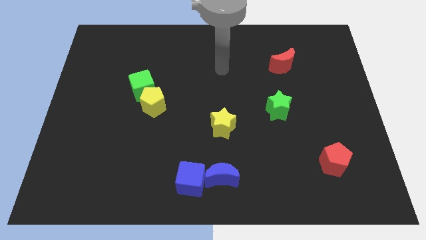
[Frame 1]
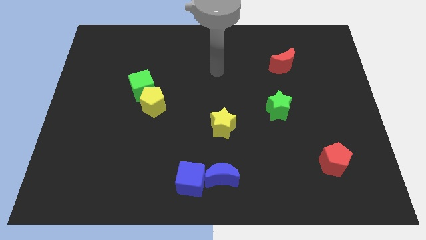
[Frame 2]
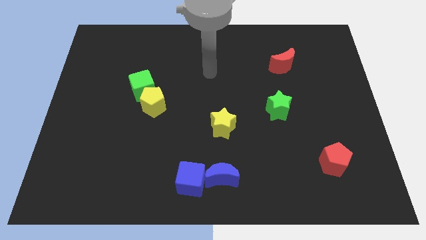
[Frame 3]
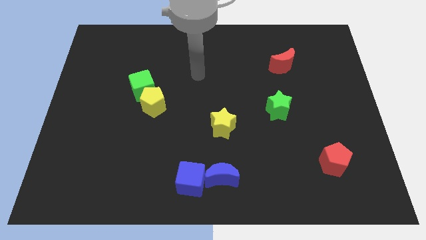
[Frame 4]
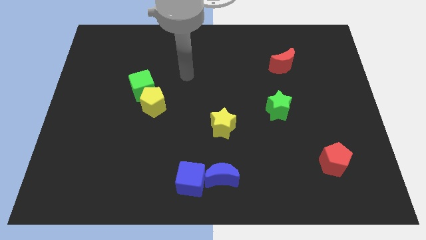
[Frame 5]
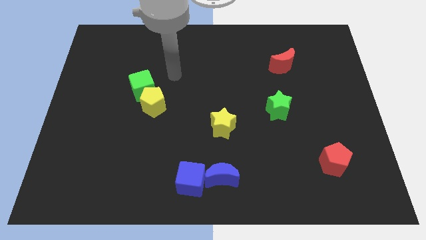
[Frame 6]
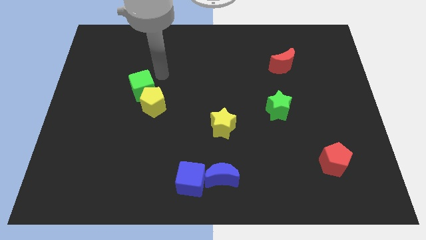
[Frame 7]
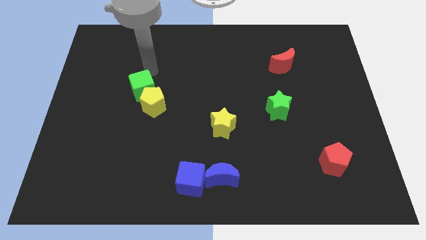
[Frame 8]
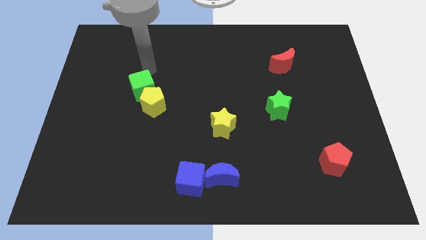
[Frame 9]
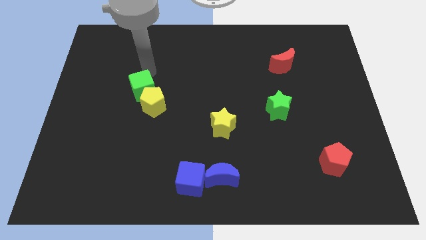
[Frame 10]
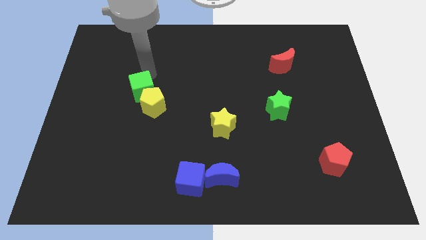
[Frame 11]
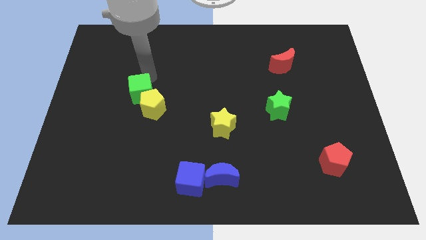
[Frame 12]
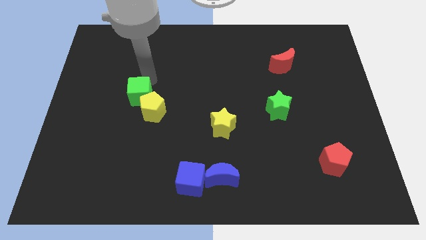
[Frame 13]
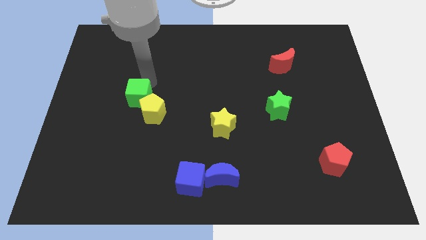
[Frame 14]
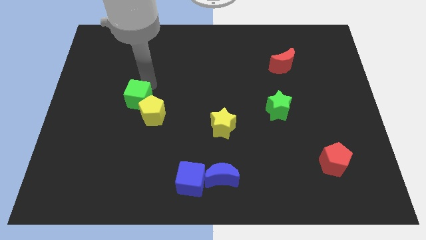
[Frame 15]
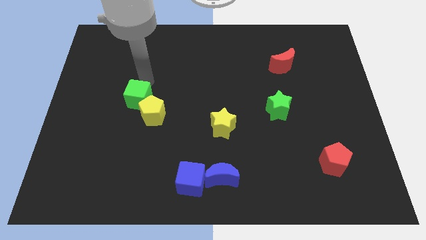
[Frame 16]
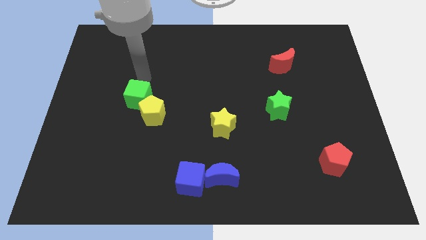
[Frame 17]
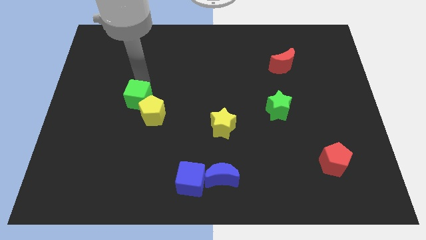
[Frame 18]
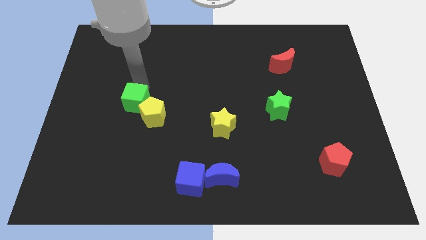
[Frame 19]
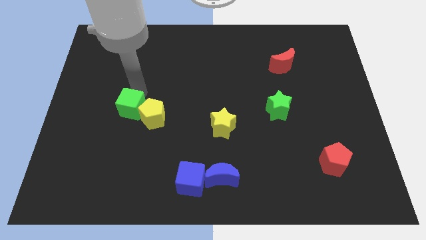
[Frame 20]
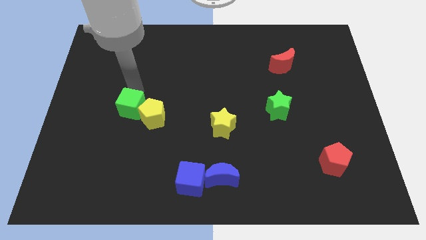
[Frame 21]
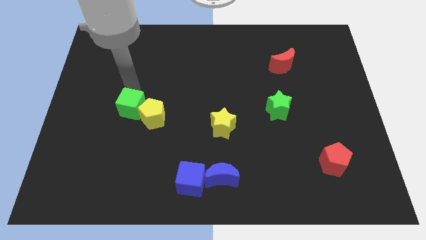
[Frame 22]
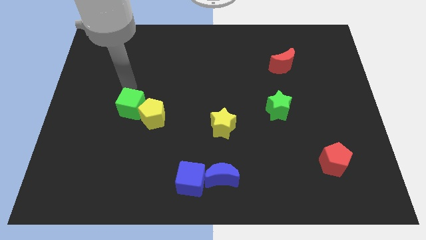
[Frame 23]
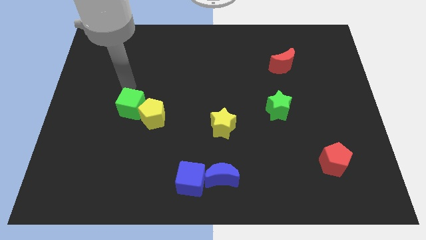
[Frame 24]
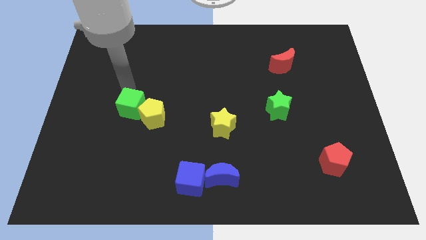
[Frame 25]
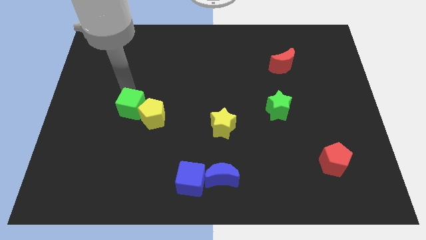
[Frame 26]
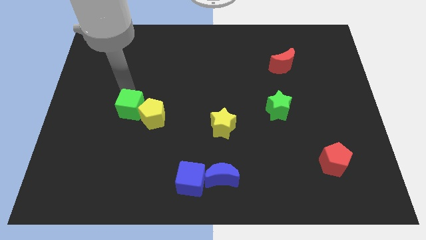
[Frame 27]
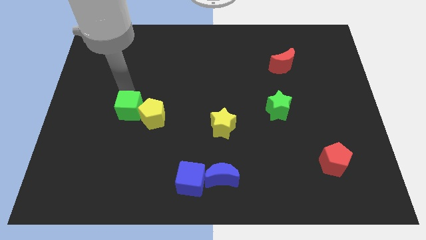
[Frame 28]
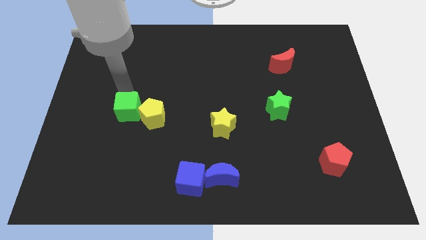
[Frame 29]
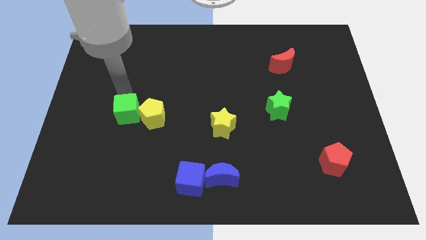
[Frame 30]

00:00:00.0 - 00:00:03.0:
slightly slide the green cube down

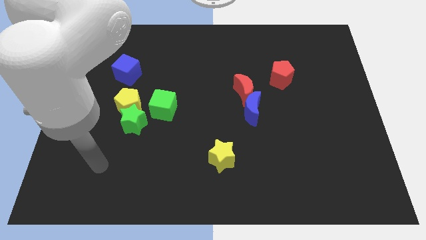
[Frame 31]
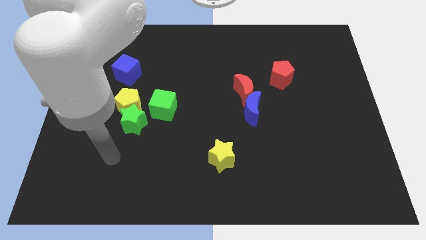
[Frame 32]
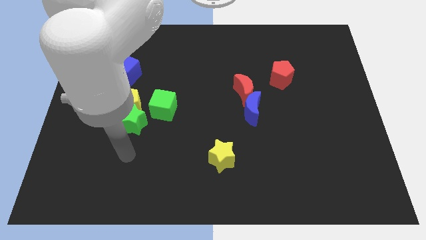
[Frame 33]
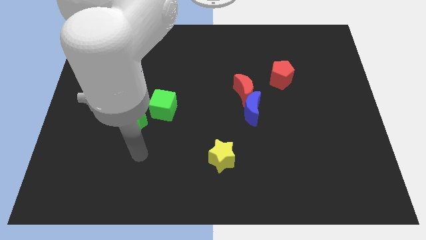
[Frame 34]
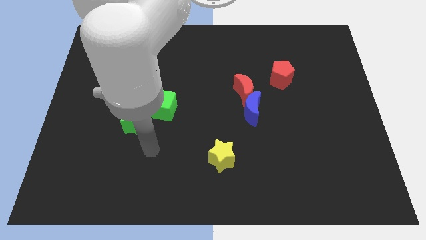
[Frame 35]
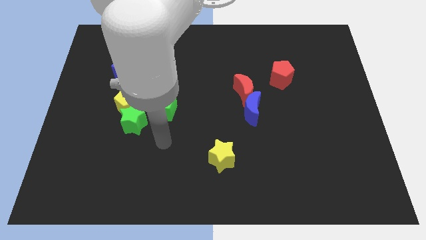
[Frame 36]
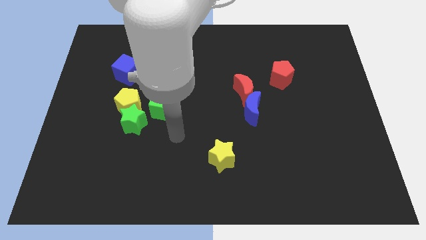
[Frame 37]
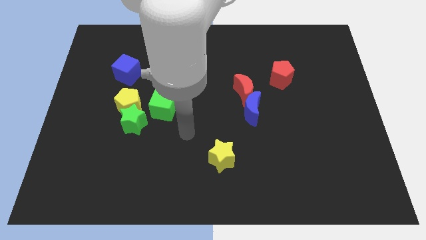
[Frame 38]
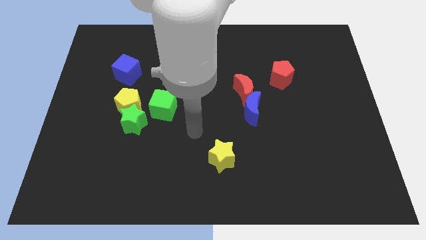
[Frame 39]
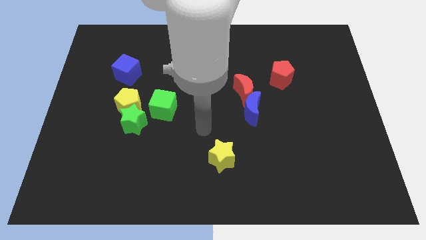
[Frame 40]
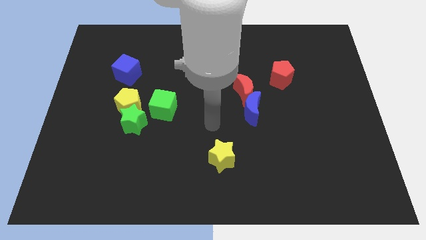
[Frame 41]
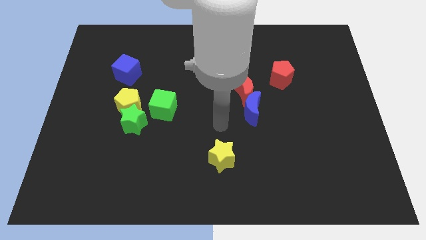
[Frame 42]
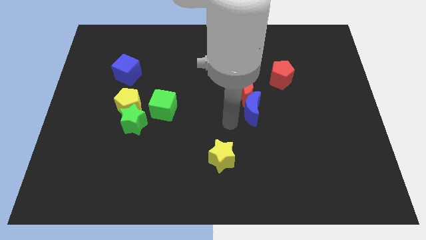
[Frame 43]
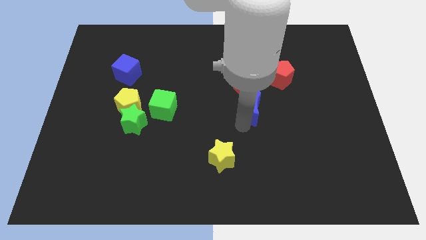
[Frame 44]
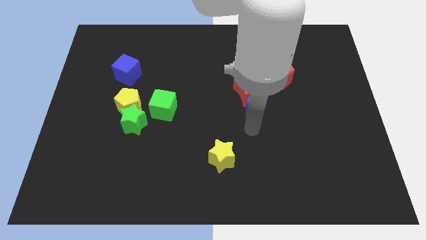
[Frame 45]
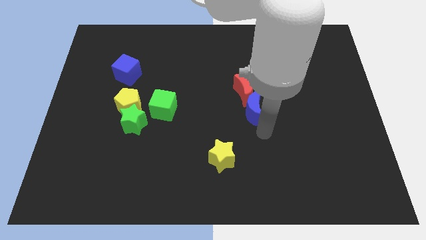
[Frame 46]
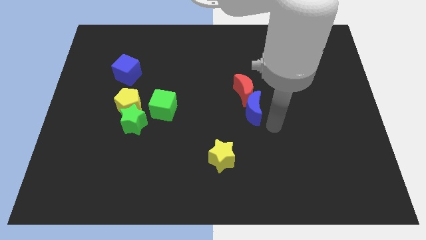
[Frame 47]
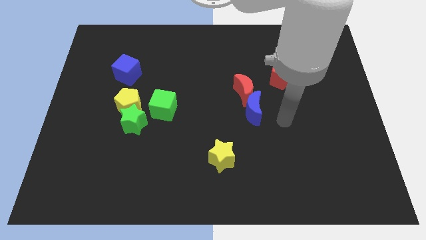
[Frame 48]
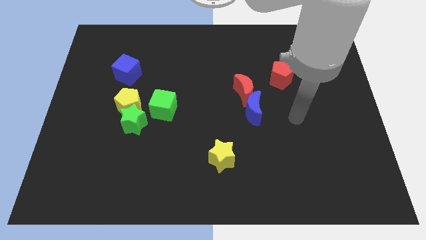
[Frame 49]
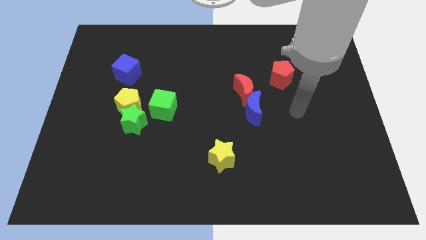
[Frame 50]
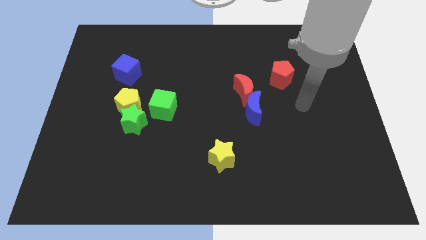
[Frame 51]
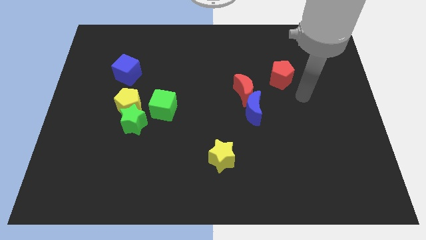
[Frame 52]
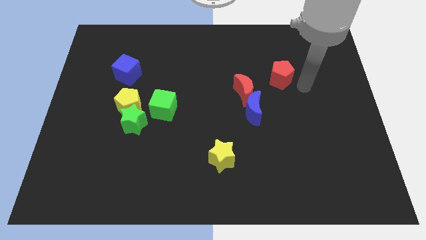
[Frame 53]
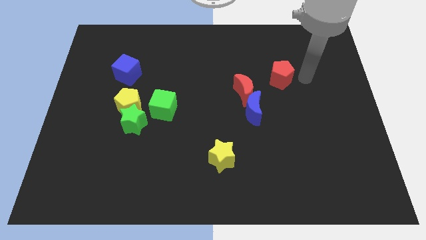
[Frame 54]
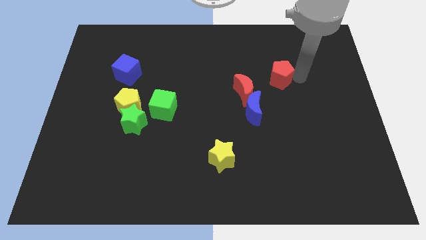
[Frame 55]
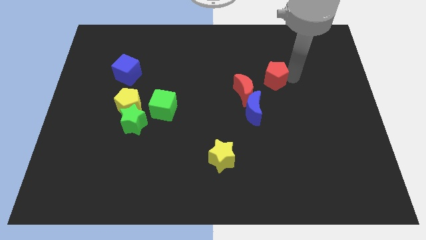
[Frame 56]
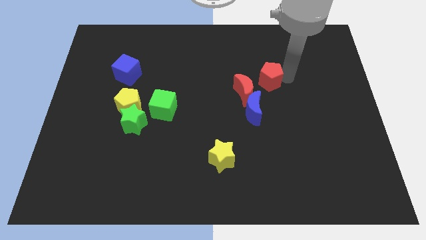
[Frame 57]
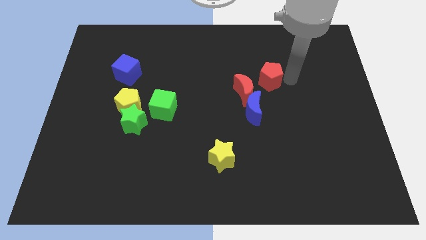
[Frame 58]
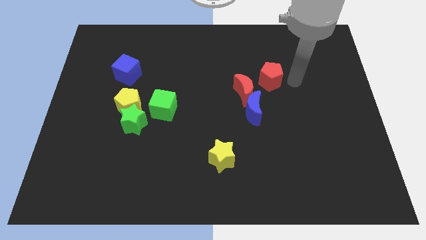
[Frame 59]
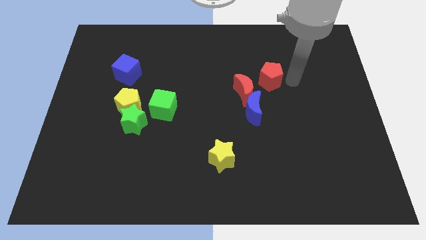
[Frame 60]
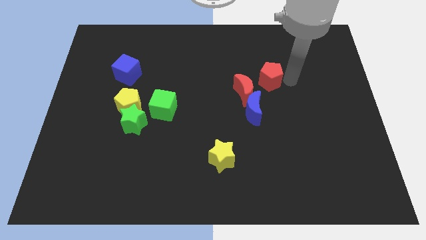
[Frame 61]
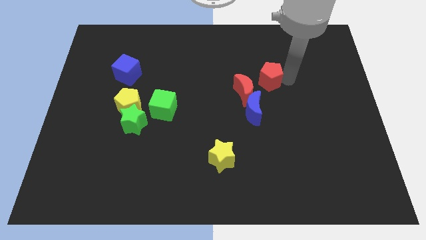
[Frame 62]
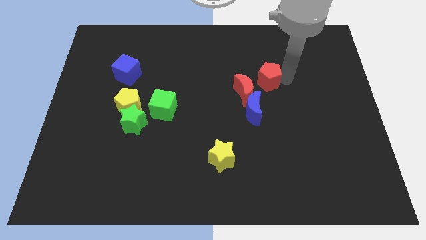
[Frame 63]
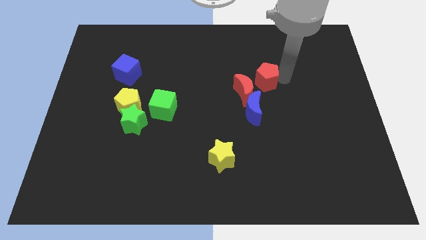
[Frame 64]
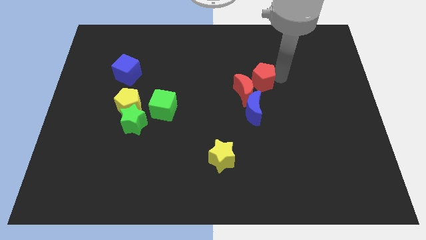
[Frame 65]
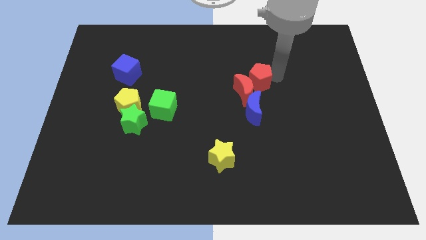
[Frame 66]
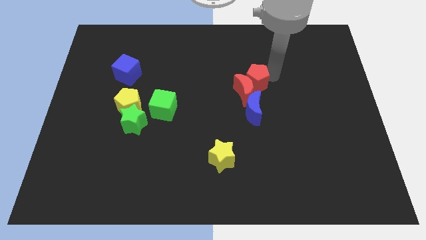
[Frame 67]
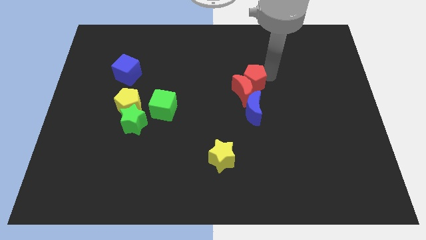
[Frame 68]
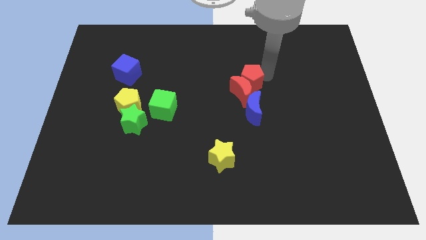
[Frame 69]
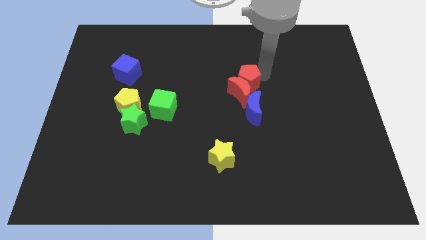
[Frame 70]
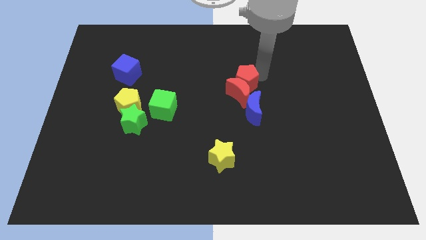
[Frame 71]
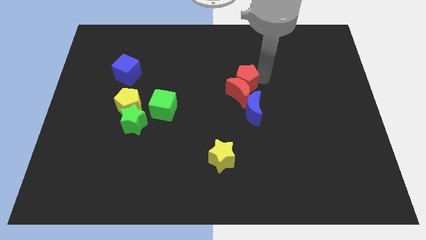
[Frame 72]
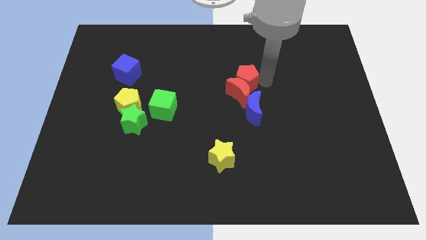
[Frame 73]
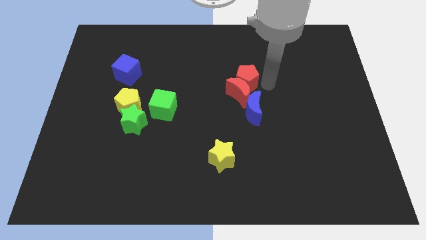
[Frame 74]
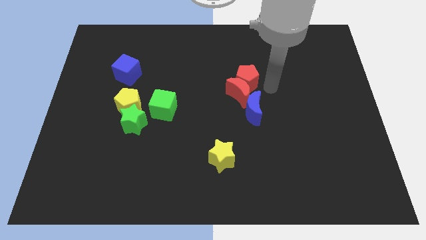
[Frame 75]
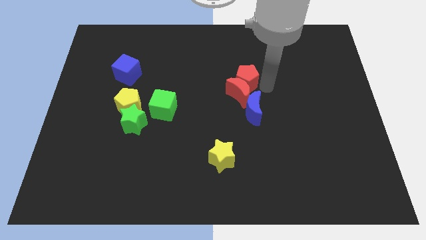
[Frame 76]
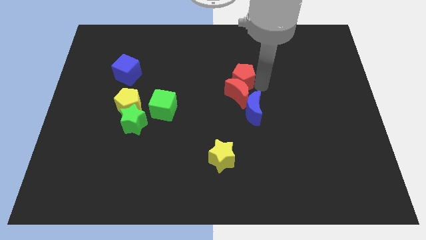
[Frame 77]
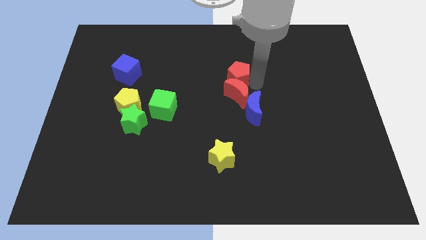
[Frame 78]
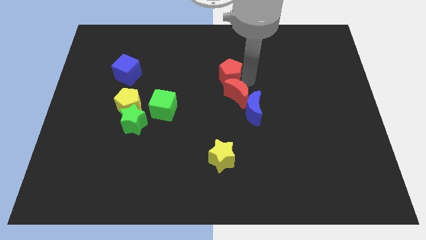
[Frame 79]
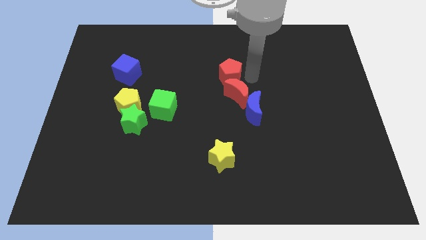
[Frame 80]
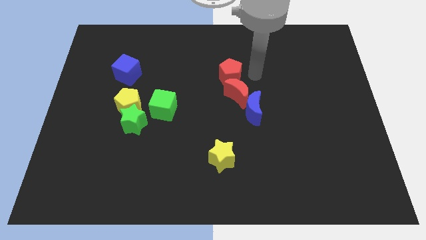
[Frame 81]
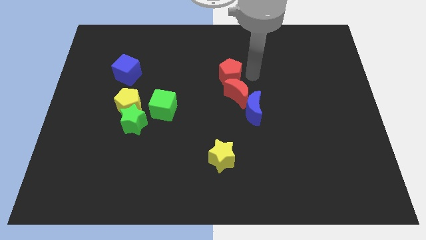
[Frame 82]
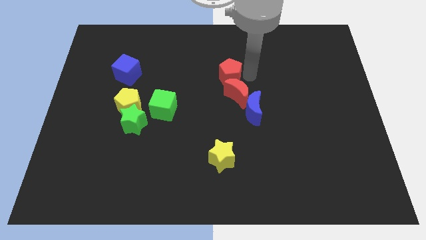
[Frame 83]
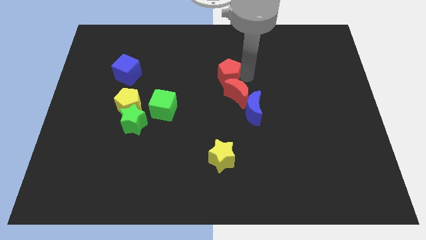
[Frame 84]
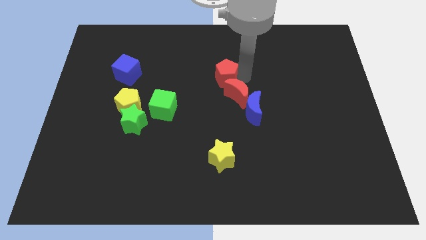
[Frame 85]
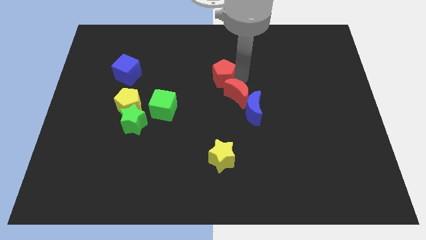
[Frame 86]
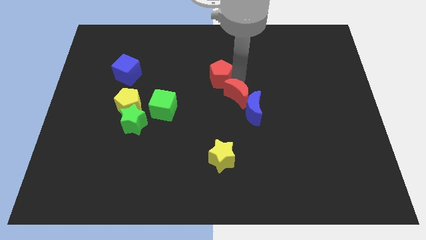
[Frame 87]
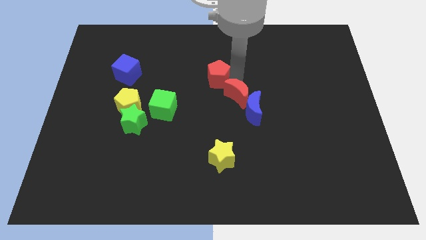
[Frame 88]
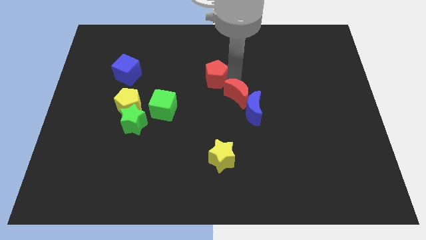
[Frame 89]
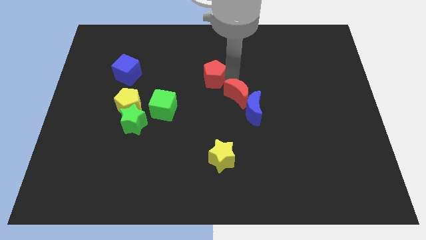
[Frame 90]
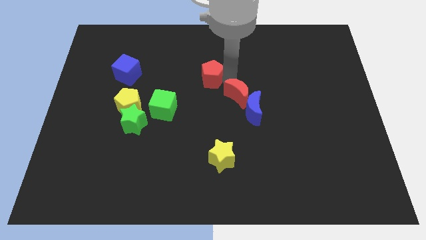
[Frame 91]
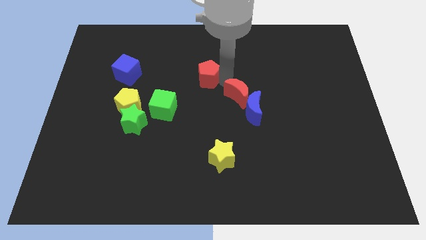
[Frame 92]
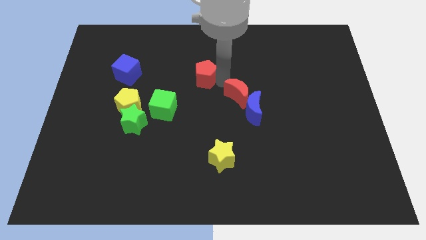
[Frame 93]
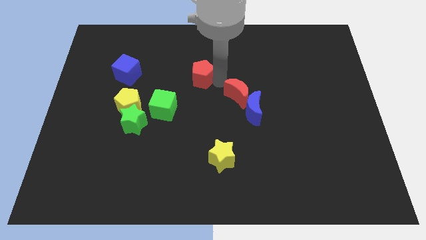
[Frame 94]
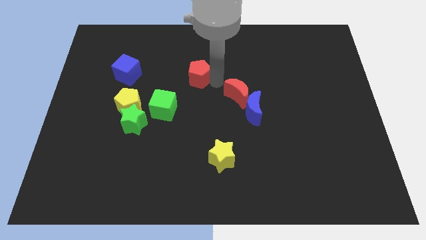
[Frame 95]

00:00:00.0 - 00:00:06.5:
move the red pentagon left
